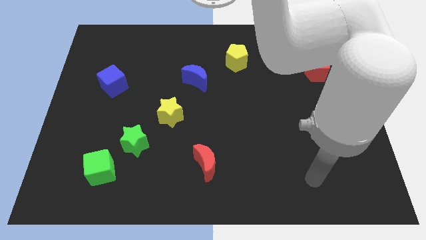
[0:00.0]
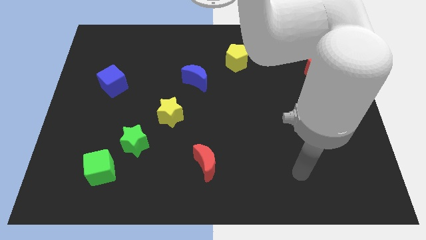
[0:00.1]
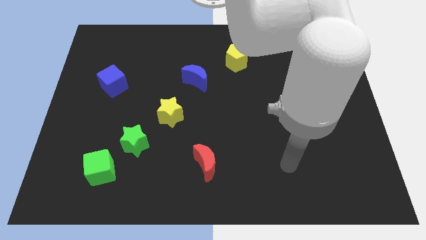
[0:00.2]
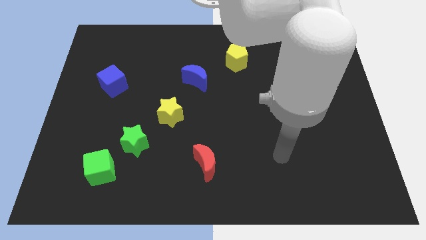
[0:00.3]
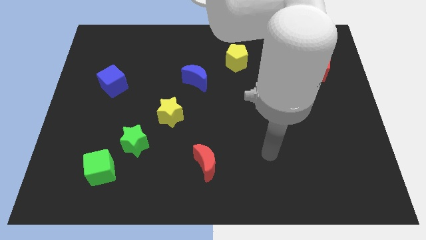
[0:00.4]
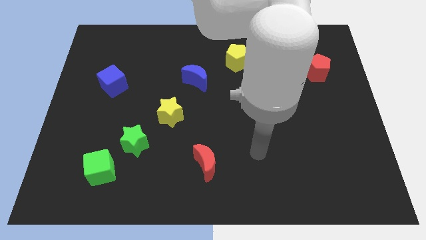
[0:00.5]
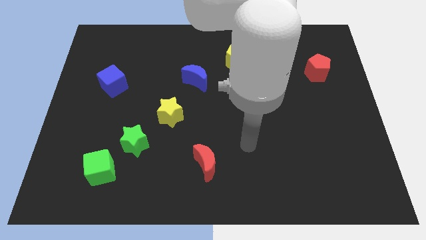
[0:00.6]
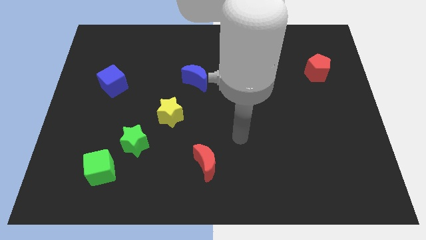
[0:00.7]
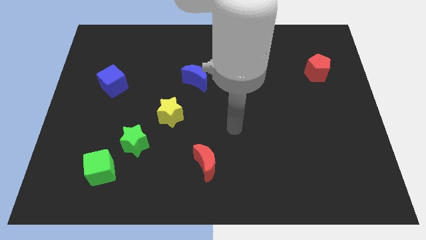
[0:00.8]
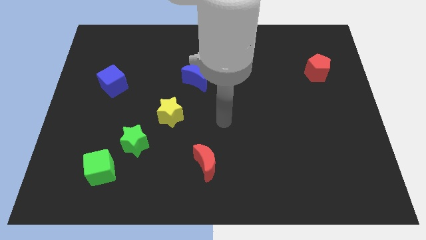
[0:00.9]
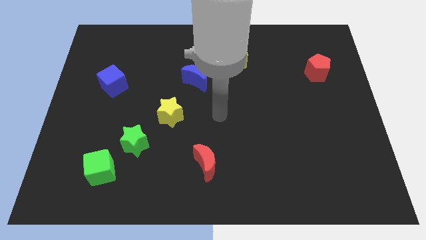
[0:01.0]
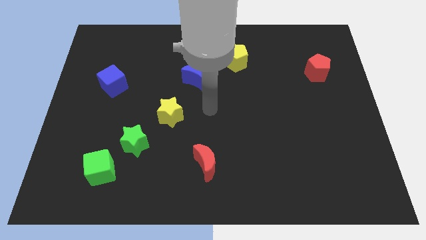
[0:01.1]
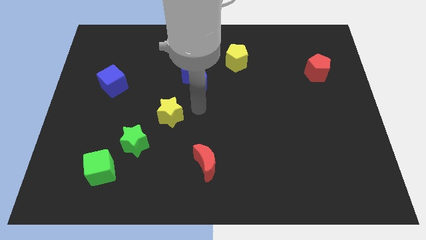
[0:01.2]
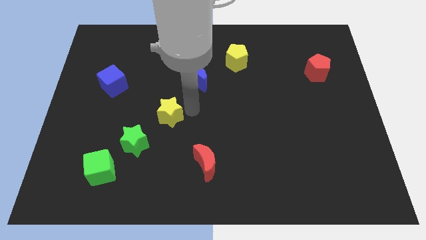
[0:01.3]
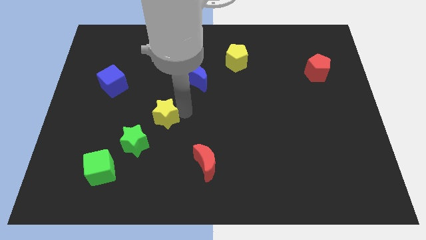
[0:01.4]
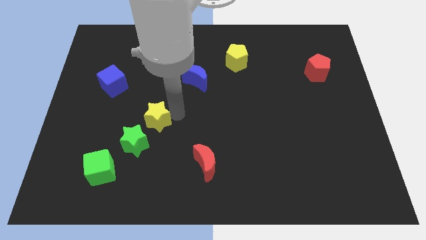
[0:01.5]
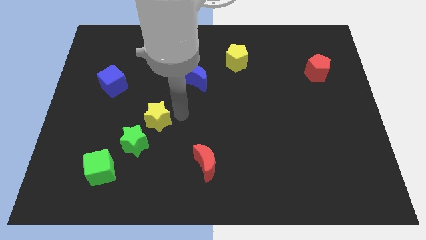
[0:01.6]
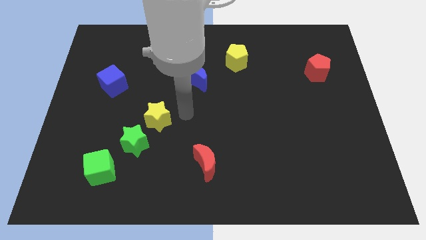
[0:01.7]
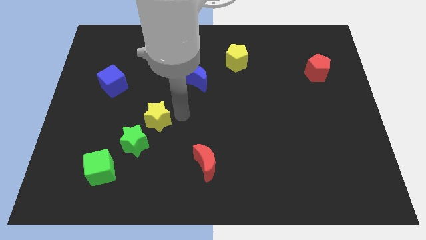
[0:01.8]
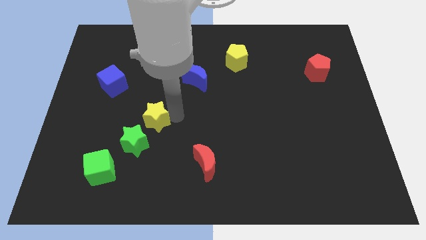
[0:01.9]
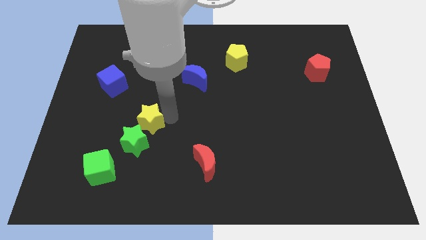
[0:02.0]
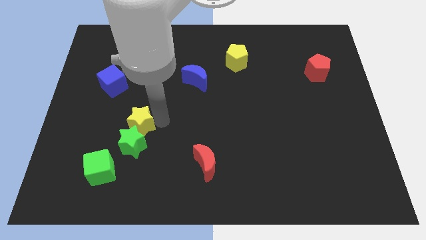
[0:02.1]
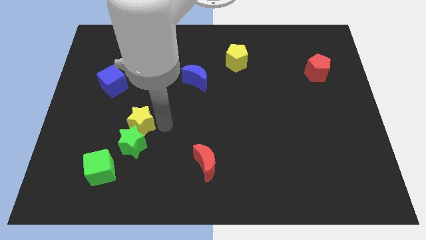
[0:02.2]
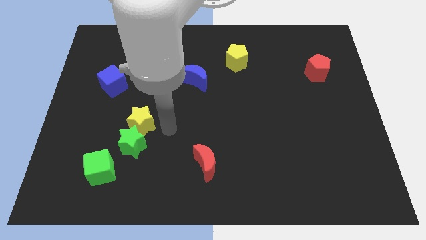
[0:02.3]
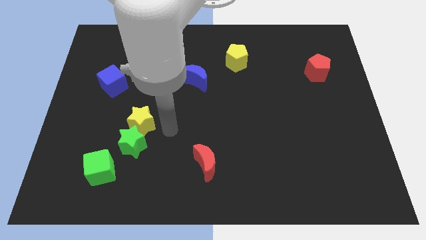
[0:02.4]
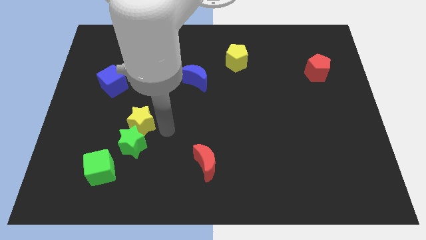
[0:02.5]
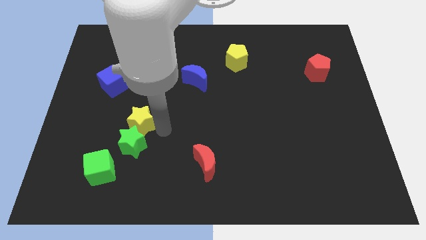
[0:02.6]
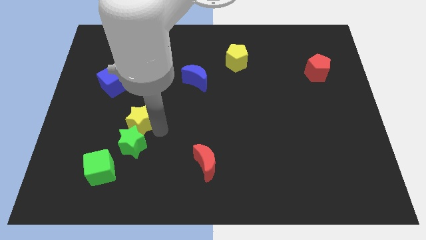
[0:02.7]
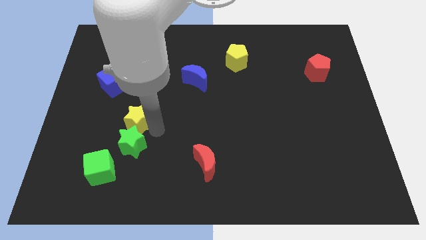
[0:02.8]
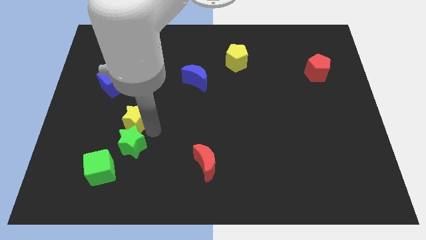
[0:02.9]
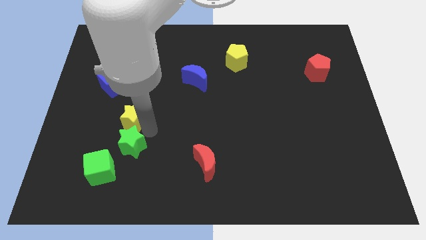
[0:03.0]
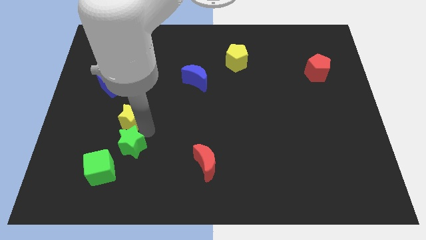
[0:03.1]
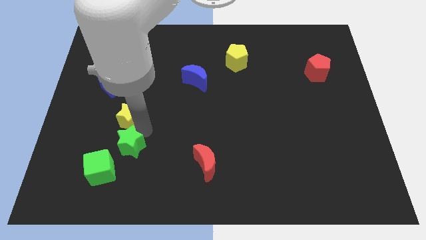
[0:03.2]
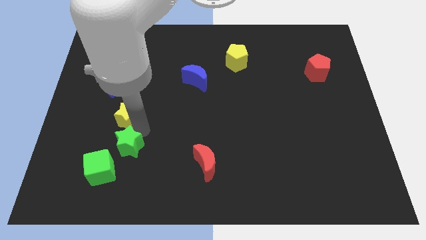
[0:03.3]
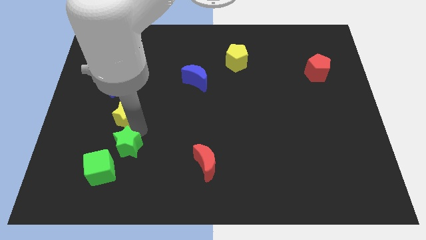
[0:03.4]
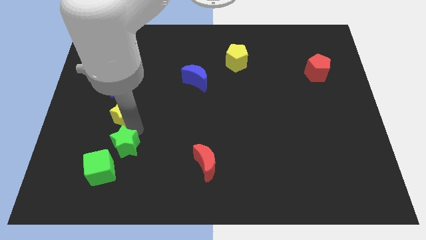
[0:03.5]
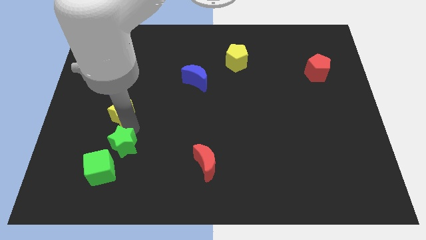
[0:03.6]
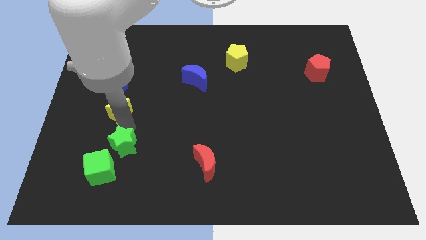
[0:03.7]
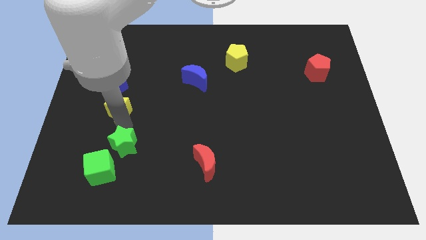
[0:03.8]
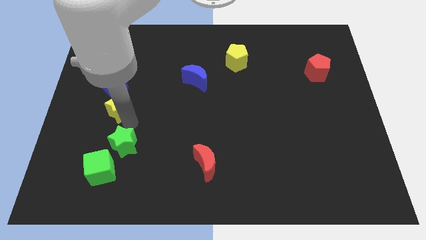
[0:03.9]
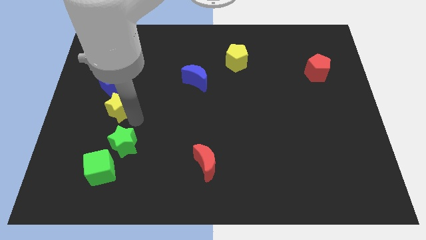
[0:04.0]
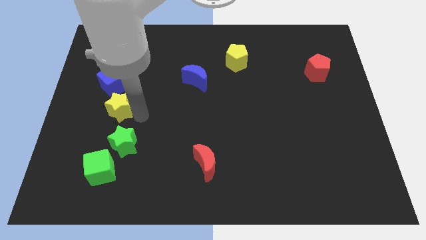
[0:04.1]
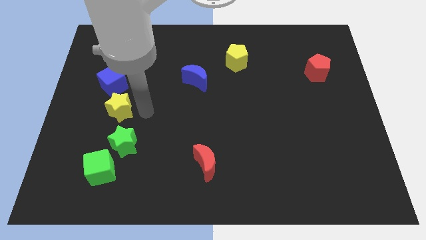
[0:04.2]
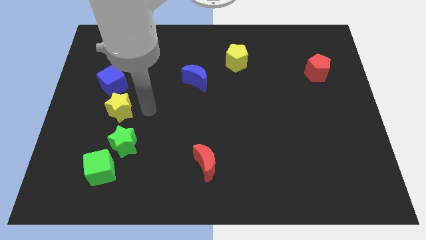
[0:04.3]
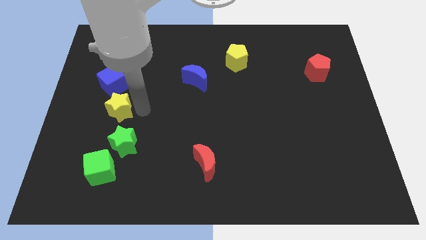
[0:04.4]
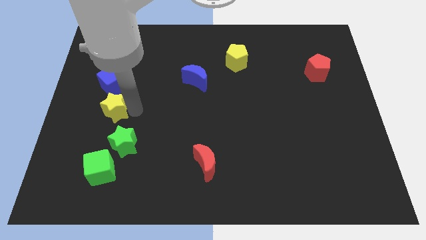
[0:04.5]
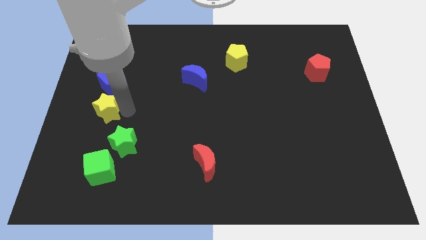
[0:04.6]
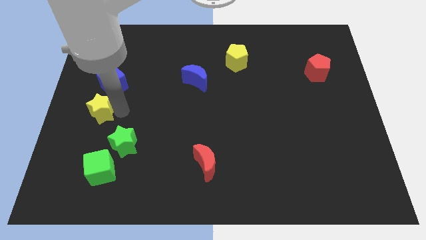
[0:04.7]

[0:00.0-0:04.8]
push the yellow star to the left side

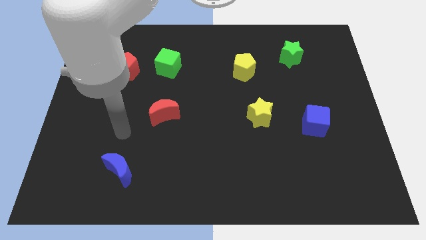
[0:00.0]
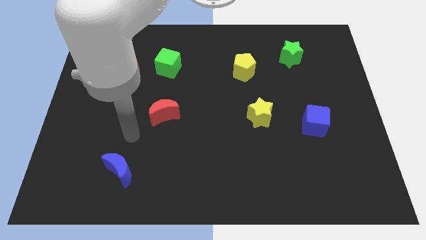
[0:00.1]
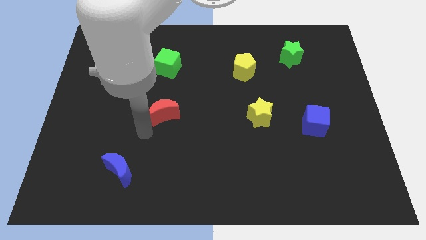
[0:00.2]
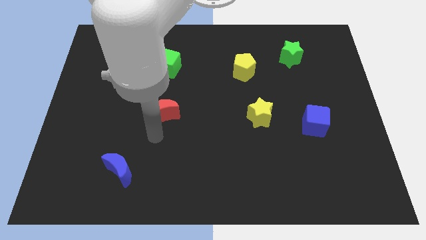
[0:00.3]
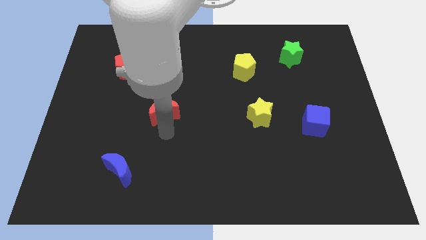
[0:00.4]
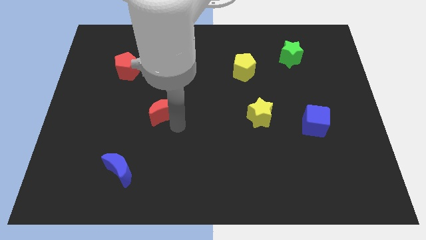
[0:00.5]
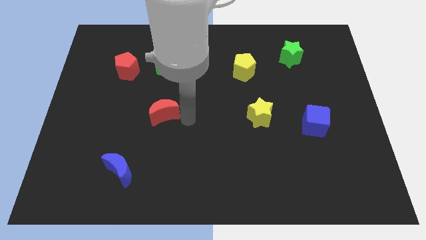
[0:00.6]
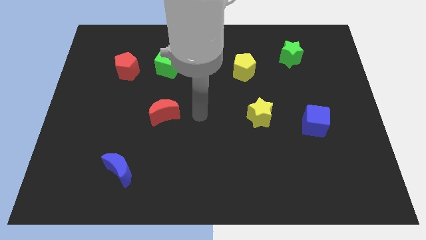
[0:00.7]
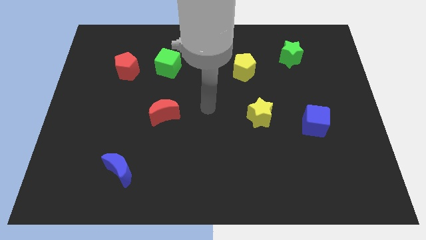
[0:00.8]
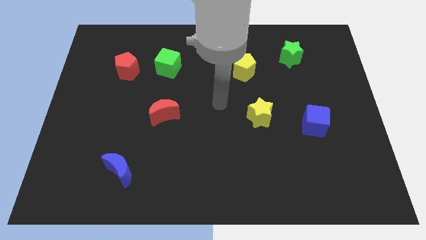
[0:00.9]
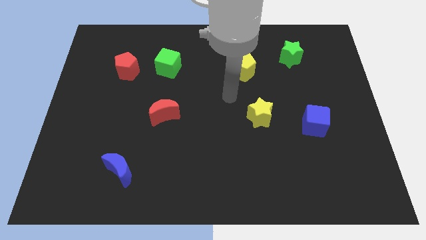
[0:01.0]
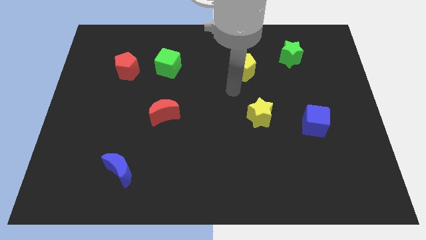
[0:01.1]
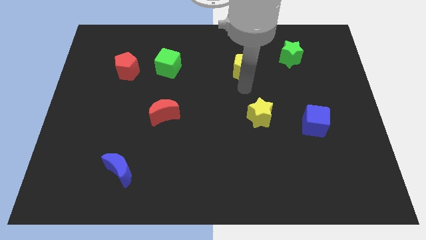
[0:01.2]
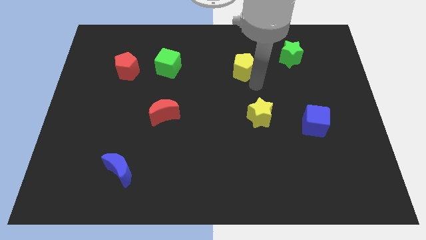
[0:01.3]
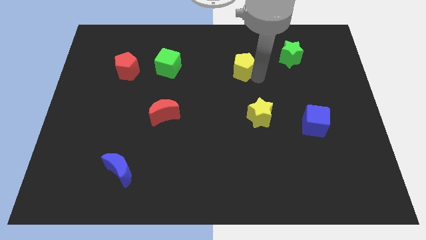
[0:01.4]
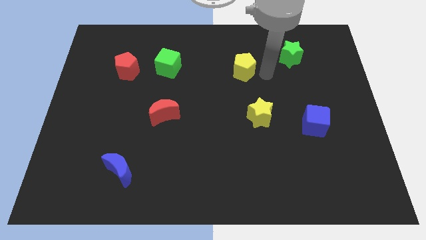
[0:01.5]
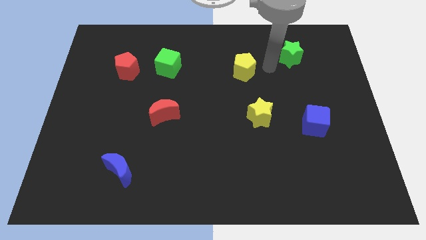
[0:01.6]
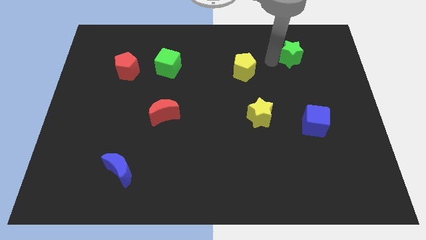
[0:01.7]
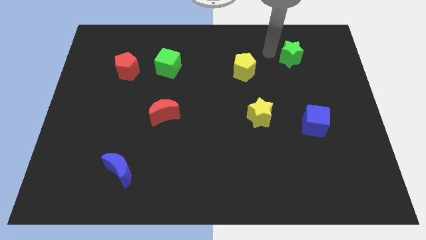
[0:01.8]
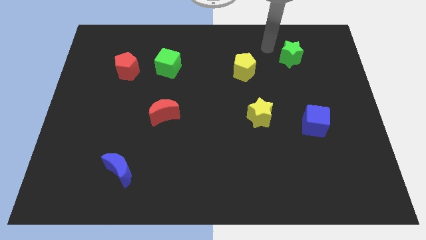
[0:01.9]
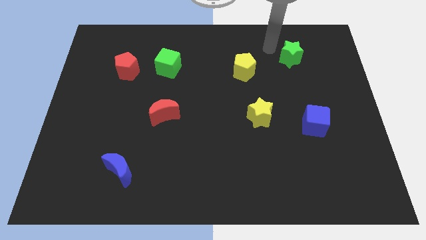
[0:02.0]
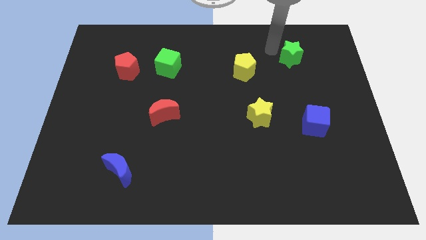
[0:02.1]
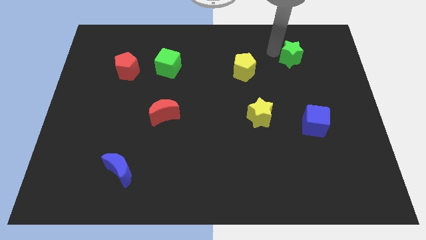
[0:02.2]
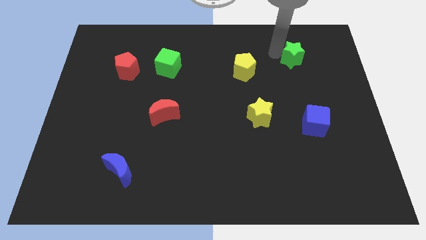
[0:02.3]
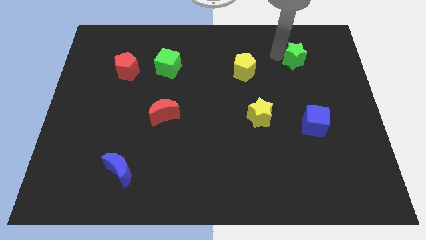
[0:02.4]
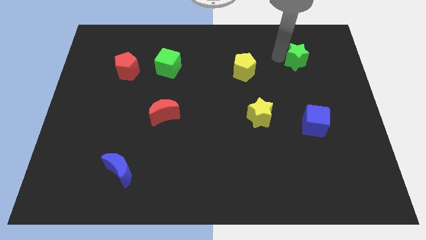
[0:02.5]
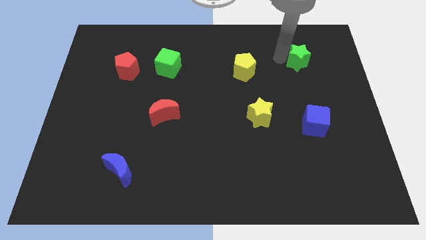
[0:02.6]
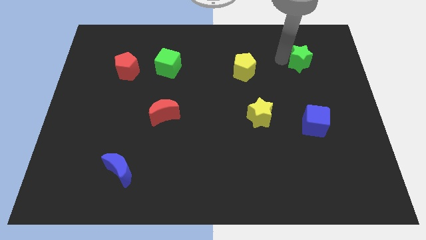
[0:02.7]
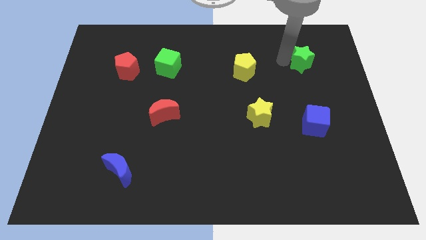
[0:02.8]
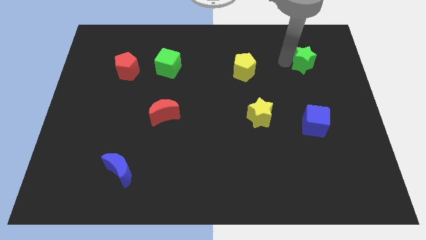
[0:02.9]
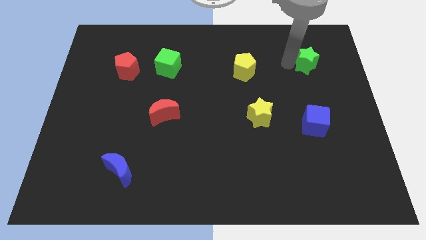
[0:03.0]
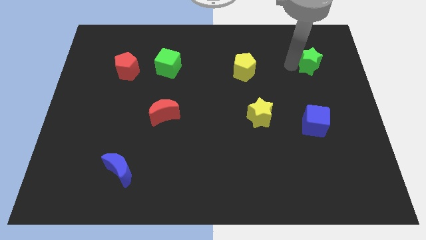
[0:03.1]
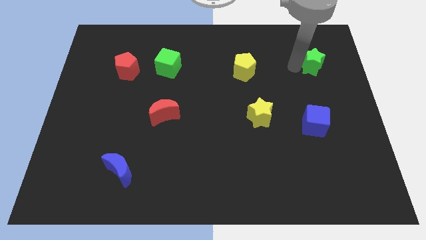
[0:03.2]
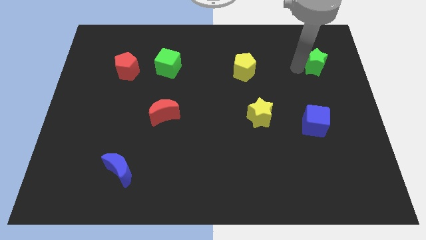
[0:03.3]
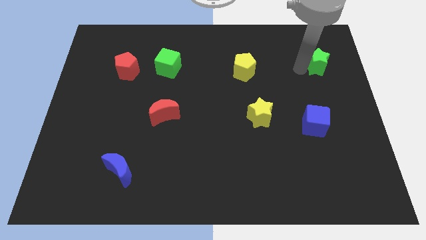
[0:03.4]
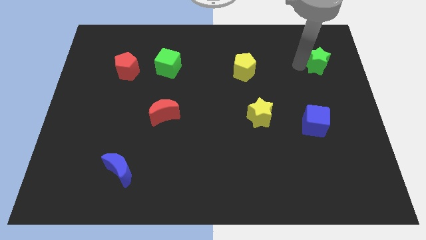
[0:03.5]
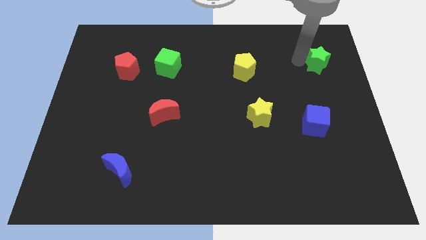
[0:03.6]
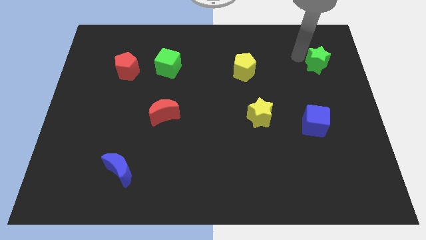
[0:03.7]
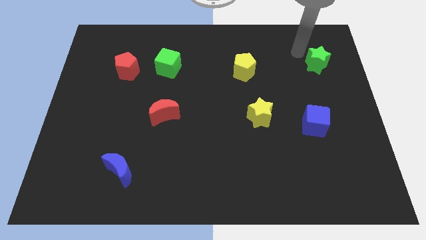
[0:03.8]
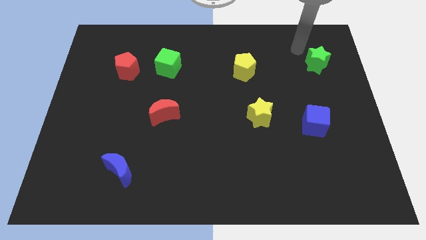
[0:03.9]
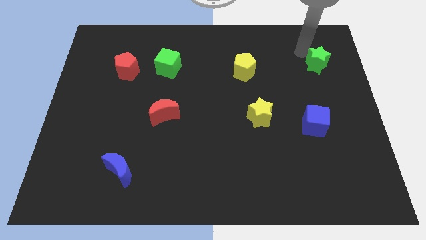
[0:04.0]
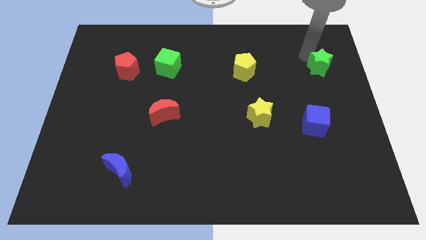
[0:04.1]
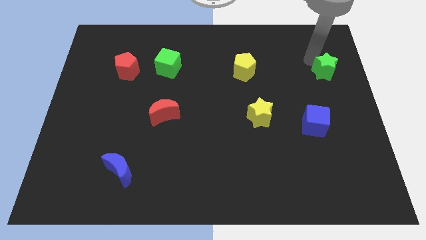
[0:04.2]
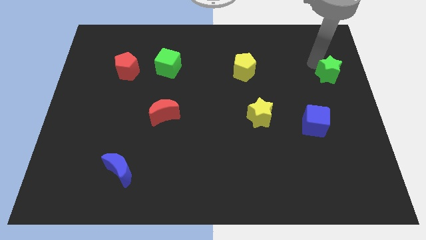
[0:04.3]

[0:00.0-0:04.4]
push the green star to the right side of the board
